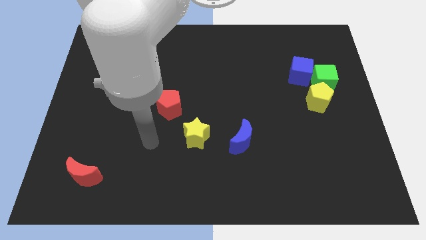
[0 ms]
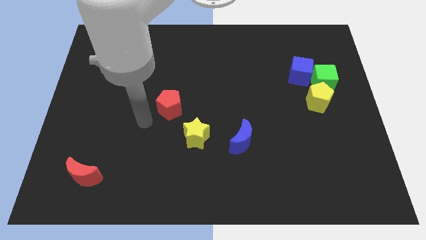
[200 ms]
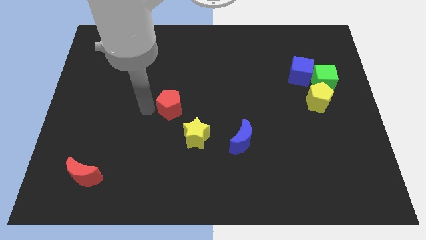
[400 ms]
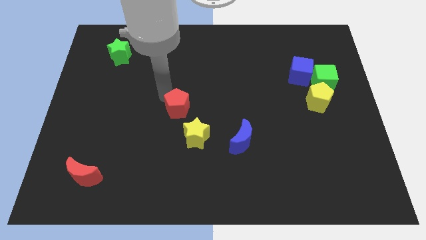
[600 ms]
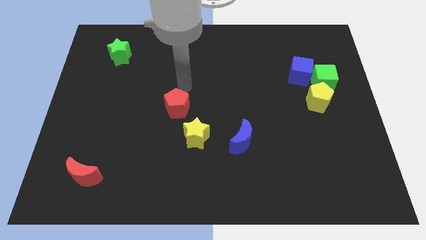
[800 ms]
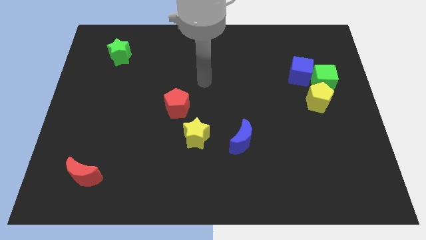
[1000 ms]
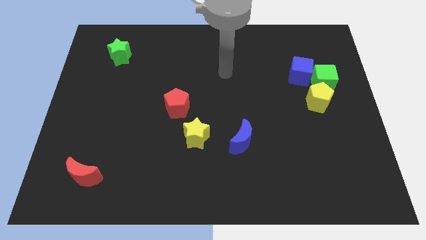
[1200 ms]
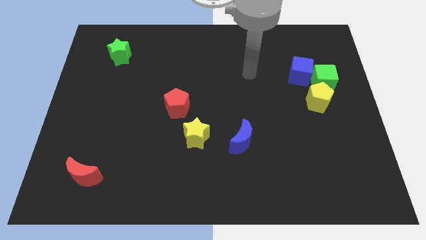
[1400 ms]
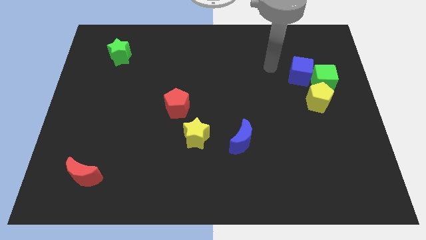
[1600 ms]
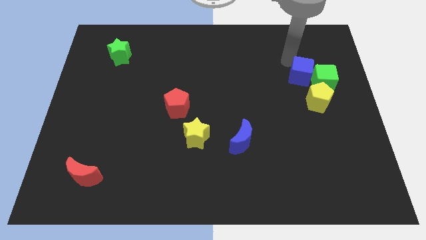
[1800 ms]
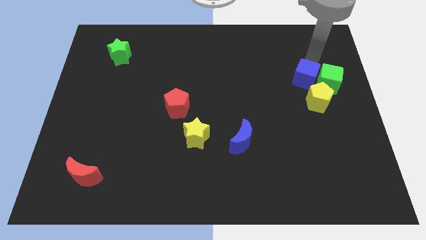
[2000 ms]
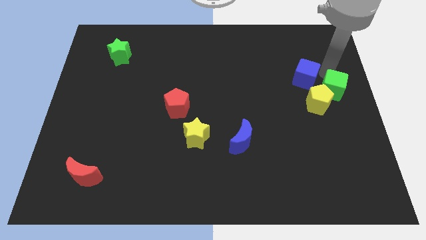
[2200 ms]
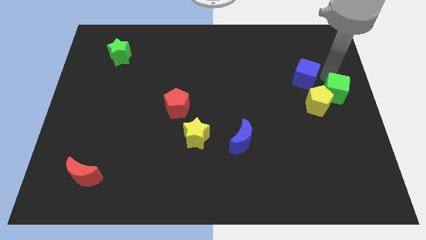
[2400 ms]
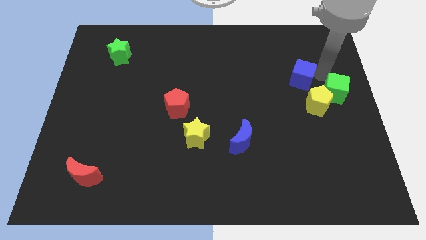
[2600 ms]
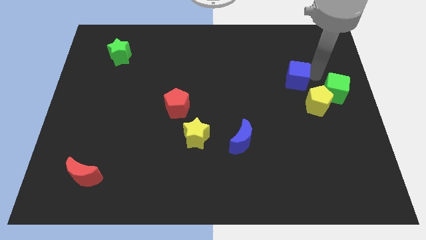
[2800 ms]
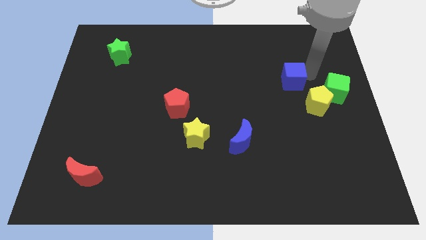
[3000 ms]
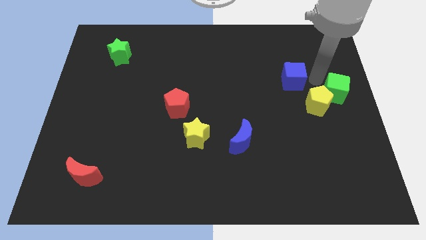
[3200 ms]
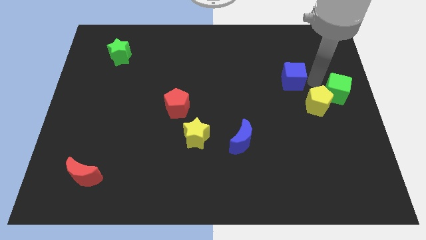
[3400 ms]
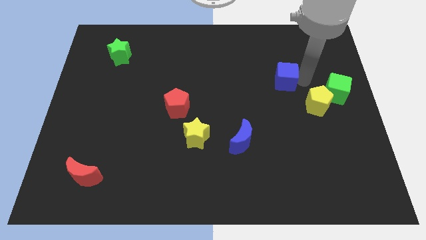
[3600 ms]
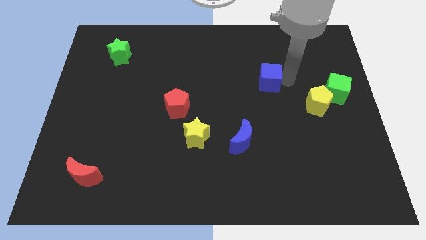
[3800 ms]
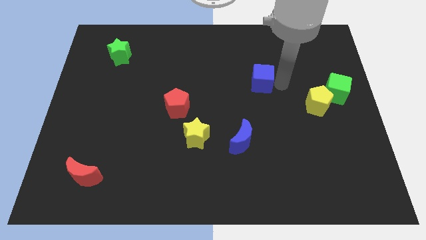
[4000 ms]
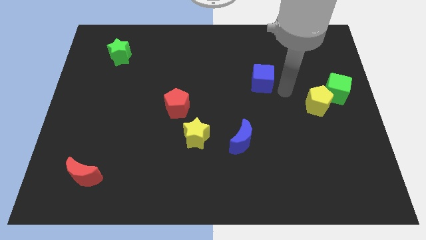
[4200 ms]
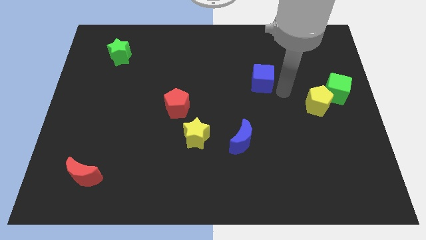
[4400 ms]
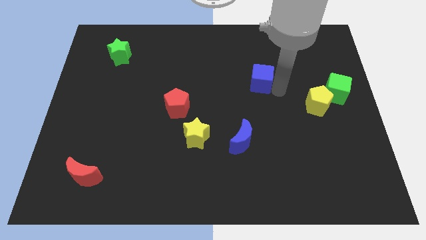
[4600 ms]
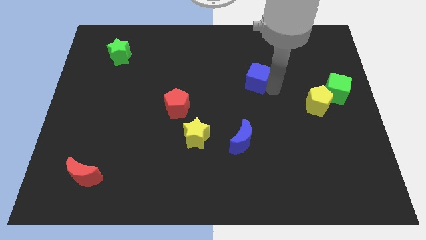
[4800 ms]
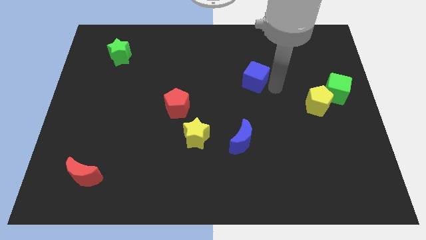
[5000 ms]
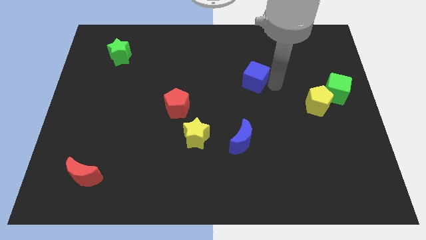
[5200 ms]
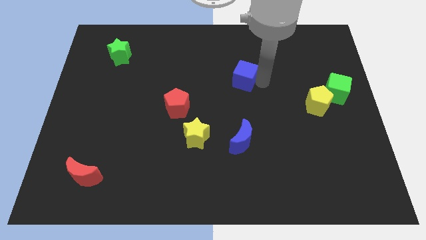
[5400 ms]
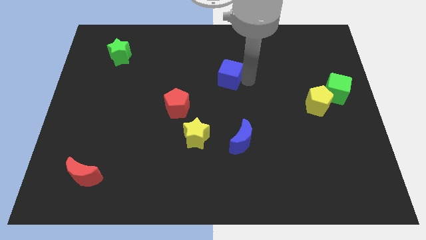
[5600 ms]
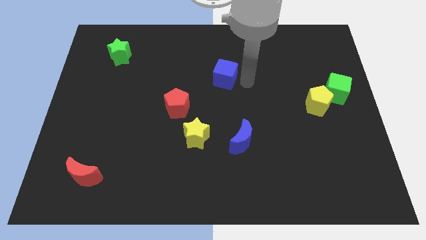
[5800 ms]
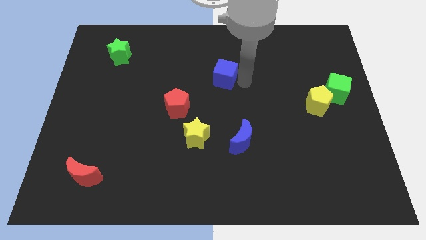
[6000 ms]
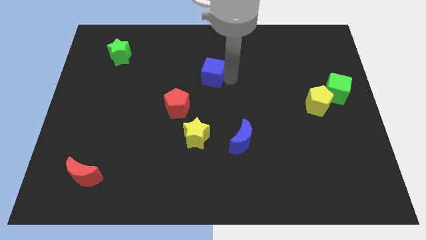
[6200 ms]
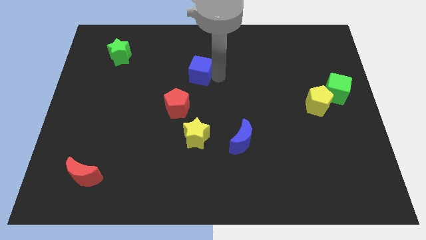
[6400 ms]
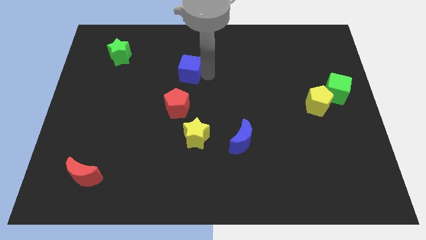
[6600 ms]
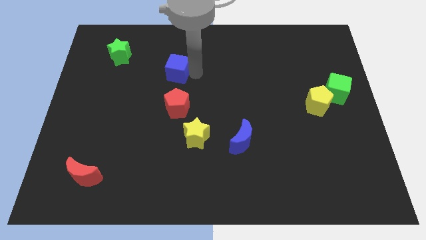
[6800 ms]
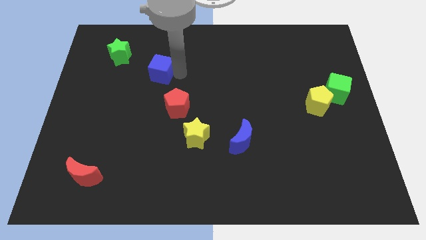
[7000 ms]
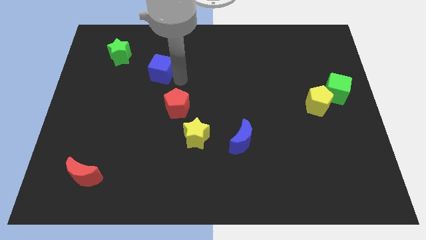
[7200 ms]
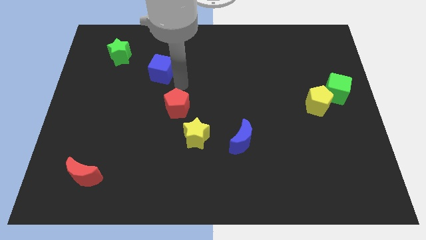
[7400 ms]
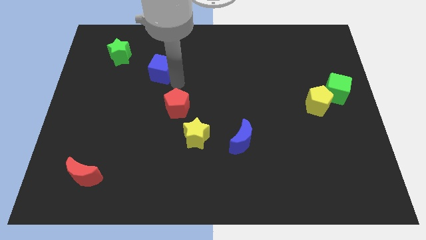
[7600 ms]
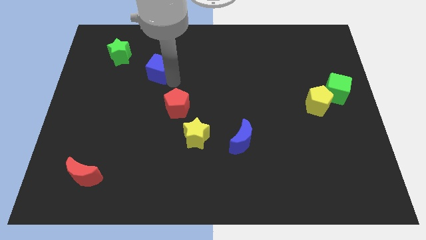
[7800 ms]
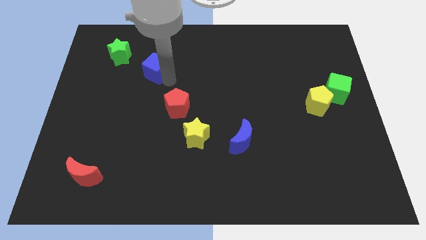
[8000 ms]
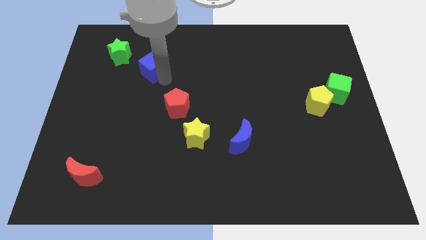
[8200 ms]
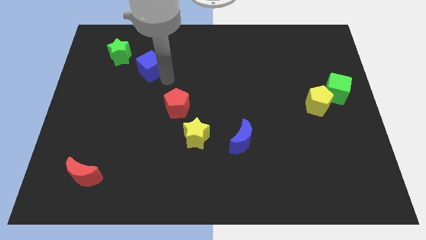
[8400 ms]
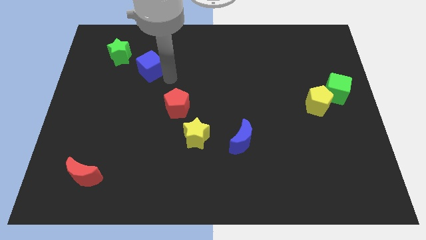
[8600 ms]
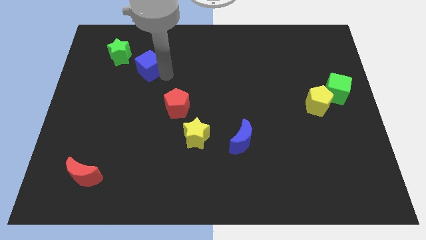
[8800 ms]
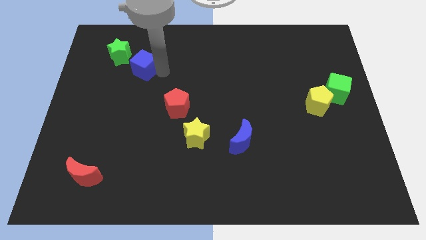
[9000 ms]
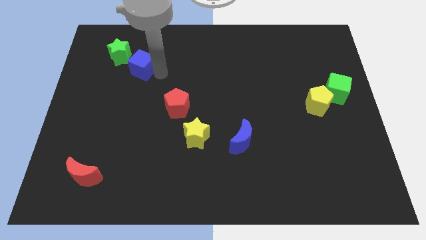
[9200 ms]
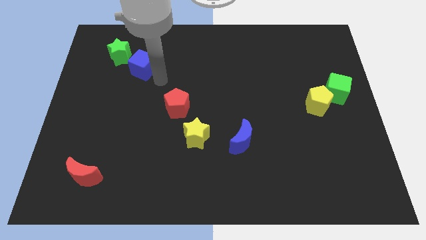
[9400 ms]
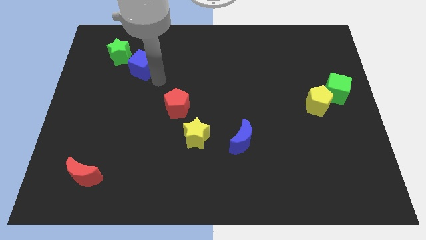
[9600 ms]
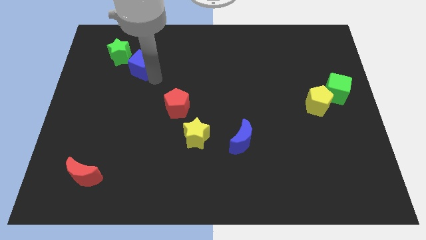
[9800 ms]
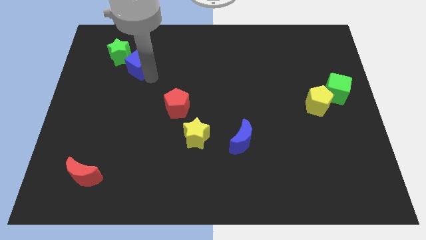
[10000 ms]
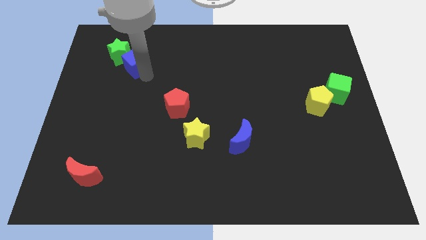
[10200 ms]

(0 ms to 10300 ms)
push the blue cube towards the green star

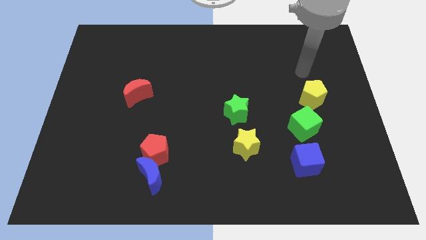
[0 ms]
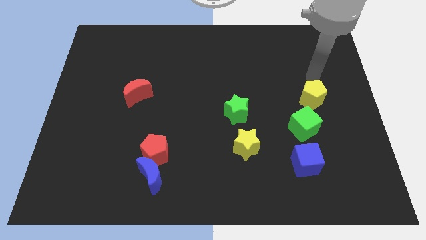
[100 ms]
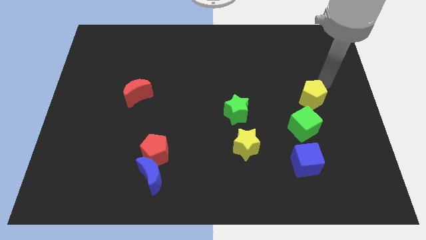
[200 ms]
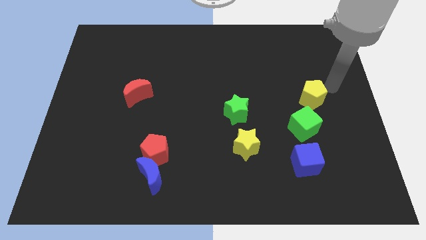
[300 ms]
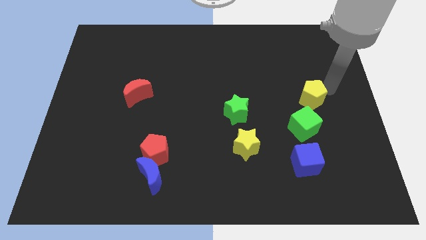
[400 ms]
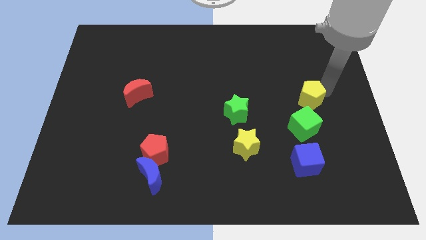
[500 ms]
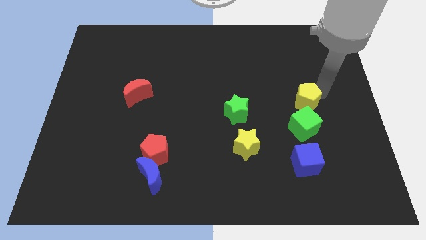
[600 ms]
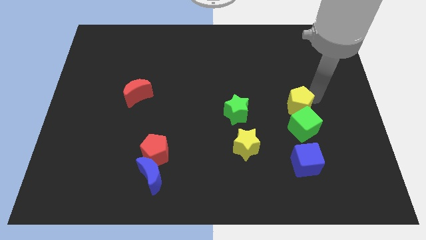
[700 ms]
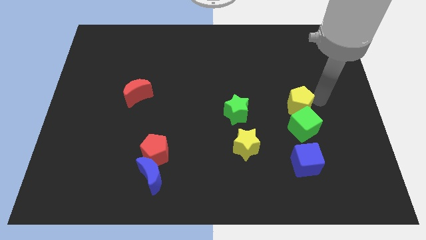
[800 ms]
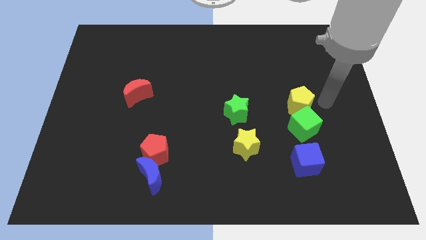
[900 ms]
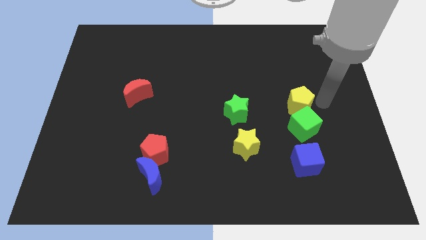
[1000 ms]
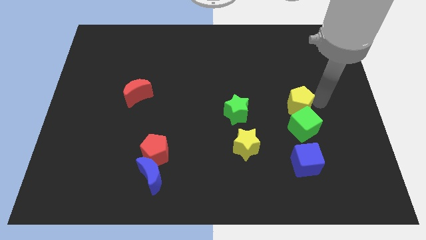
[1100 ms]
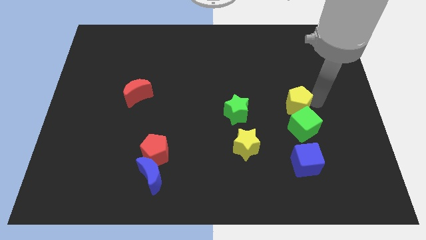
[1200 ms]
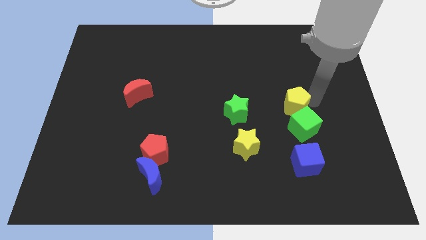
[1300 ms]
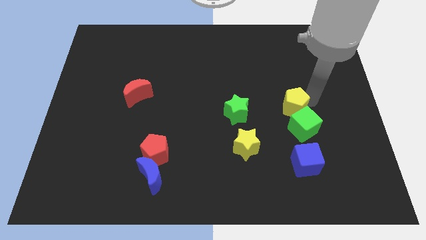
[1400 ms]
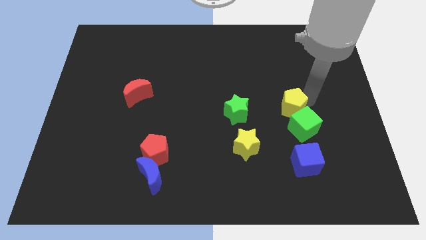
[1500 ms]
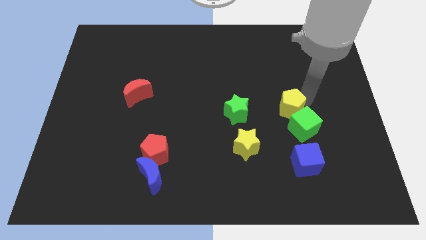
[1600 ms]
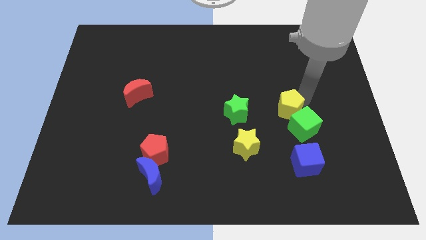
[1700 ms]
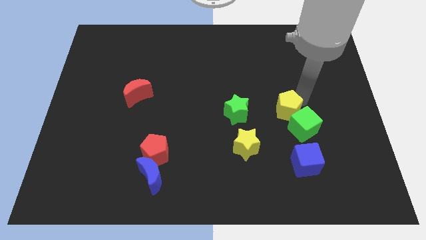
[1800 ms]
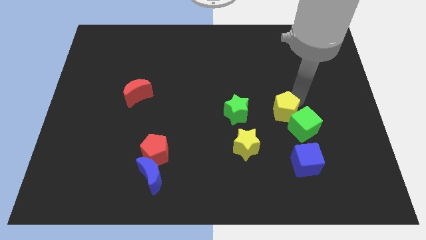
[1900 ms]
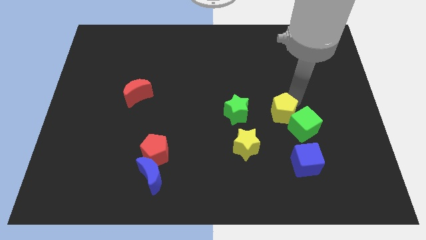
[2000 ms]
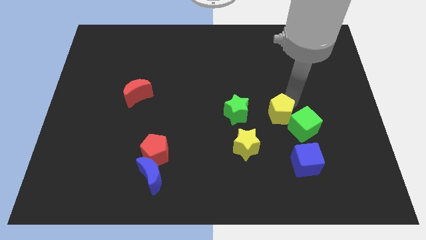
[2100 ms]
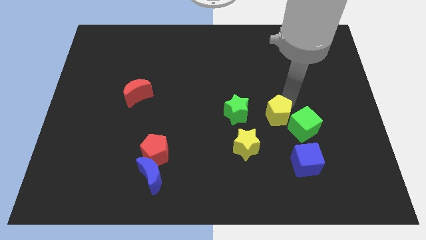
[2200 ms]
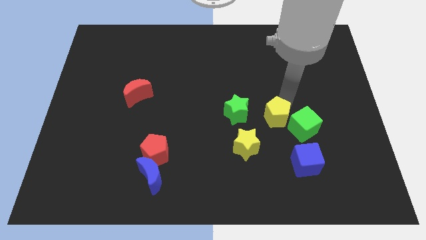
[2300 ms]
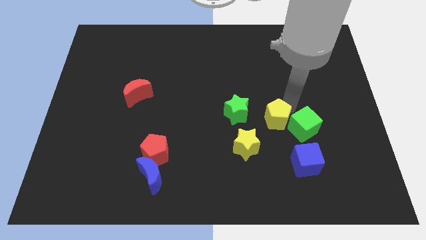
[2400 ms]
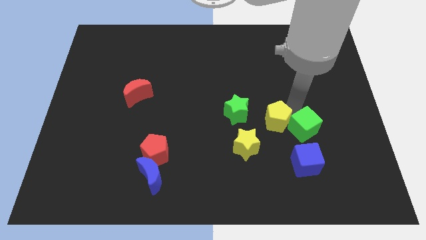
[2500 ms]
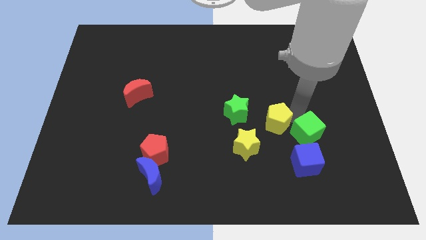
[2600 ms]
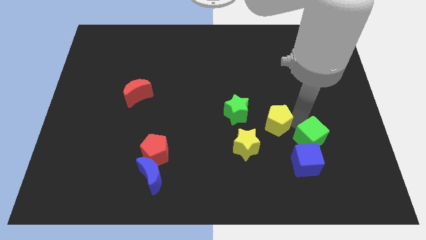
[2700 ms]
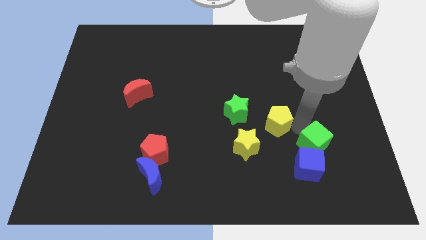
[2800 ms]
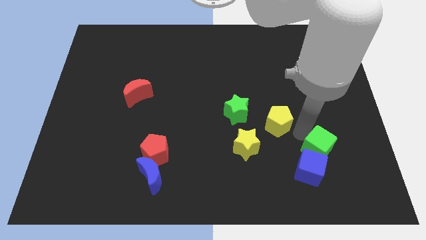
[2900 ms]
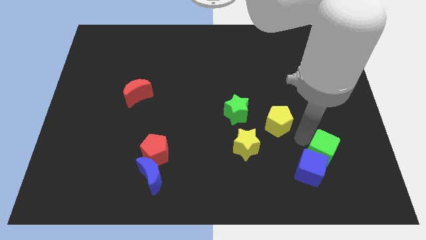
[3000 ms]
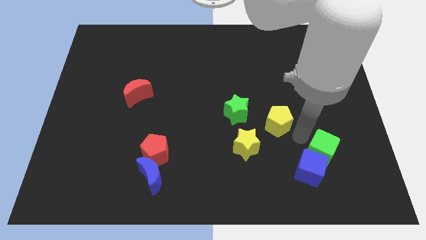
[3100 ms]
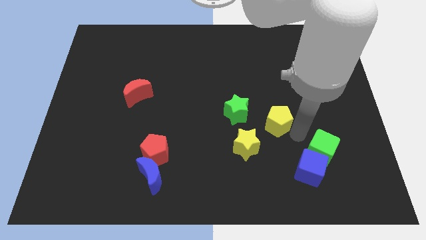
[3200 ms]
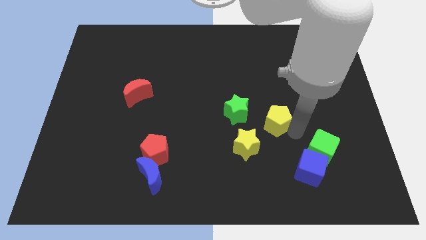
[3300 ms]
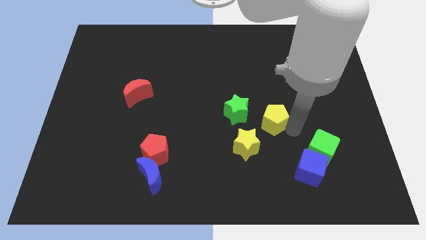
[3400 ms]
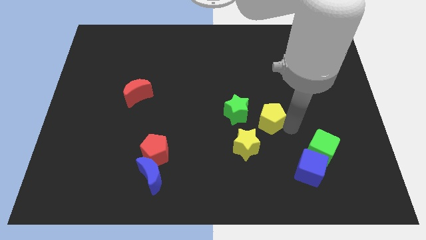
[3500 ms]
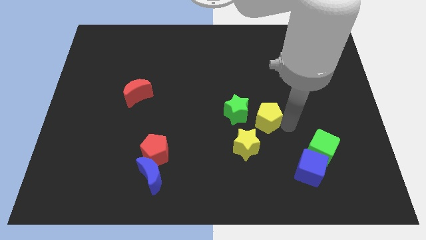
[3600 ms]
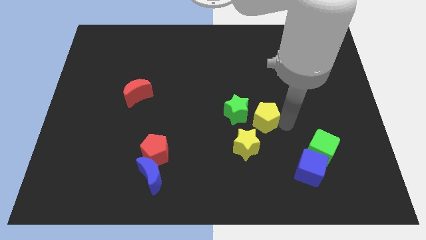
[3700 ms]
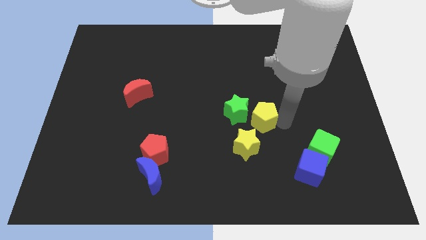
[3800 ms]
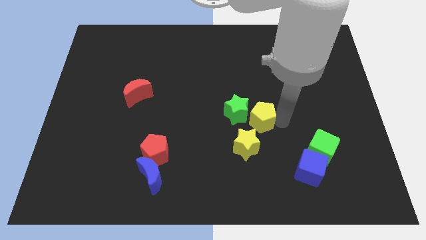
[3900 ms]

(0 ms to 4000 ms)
slide the yellow pentagon to the green star
